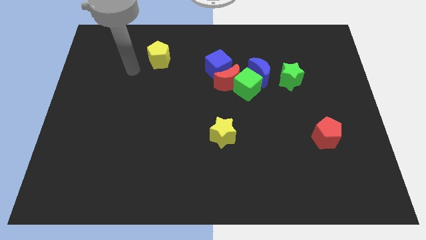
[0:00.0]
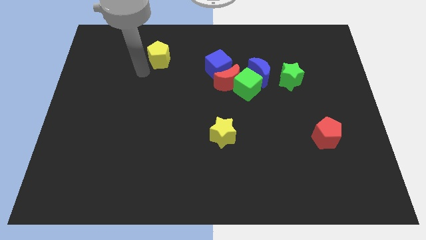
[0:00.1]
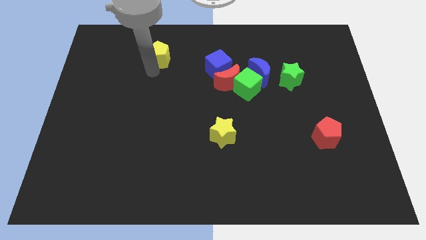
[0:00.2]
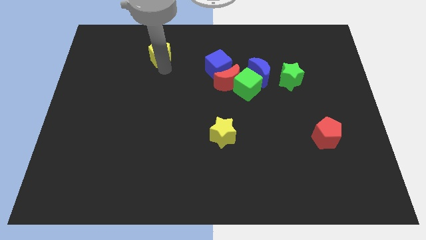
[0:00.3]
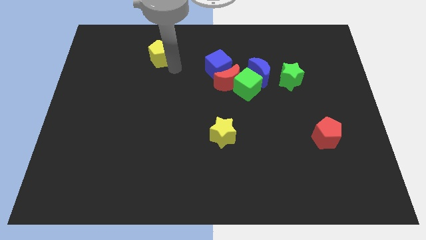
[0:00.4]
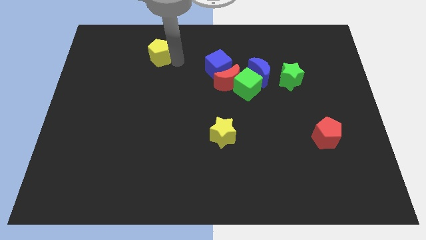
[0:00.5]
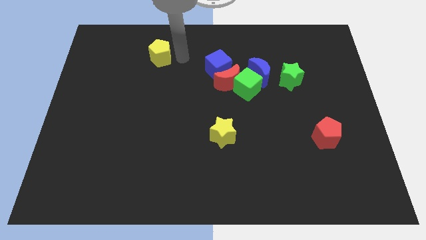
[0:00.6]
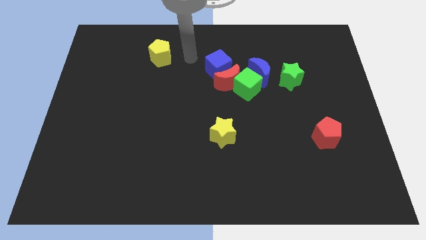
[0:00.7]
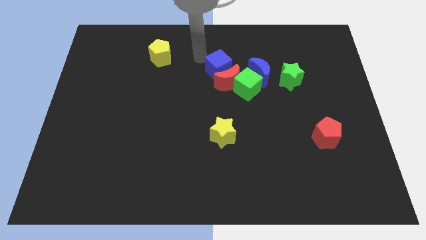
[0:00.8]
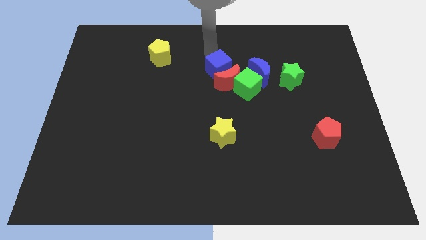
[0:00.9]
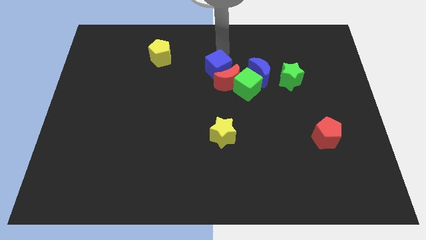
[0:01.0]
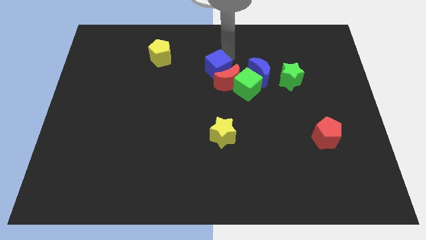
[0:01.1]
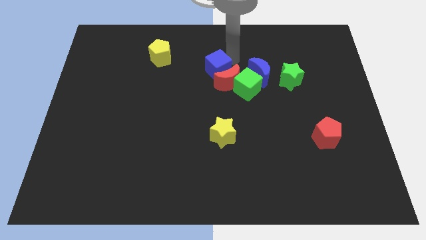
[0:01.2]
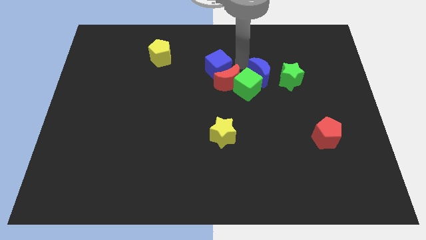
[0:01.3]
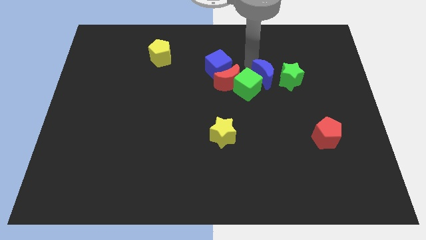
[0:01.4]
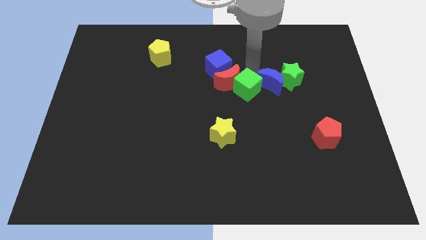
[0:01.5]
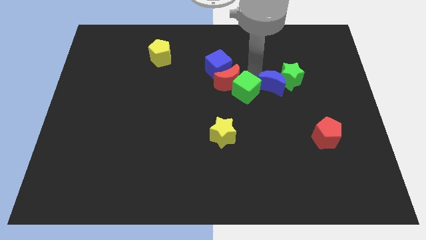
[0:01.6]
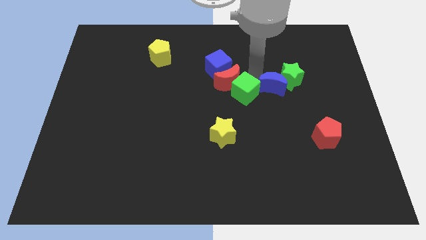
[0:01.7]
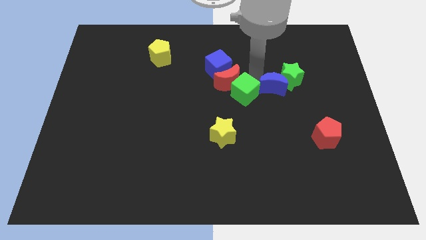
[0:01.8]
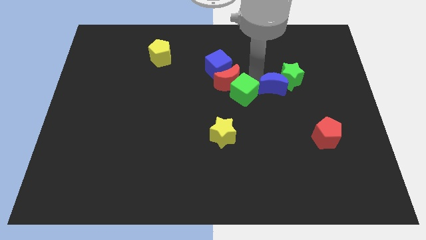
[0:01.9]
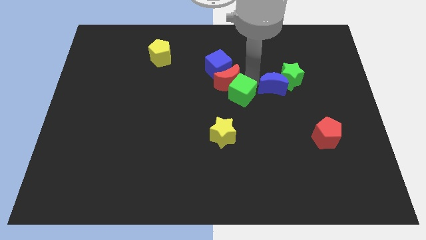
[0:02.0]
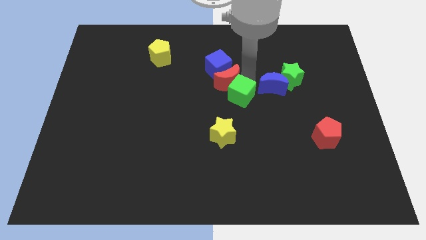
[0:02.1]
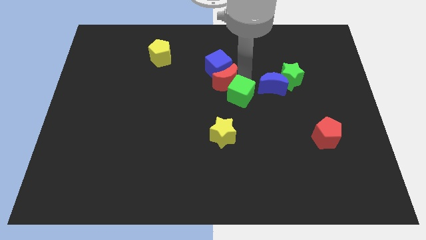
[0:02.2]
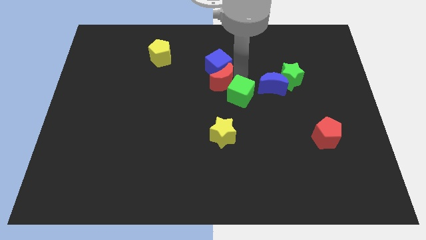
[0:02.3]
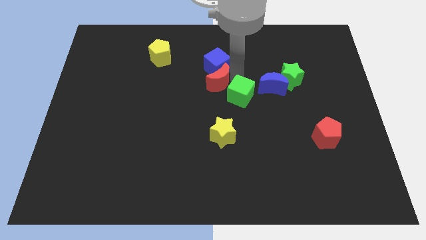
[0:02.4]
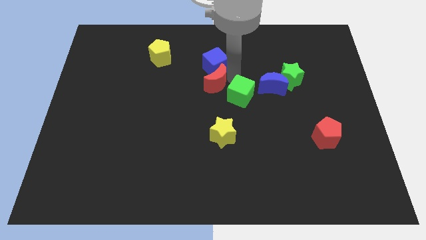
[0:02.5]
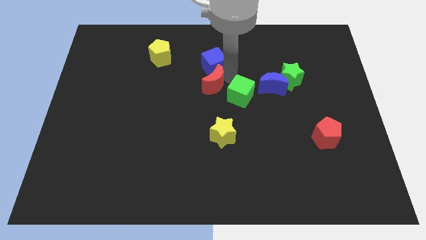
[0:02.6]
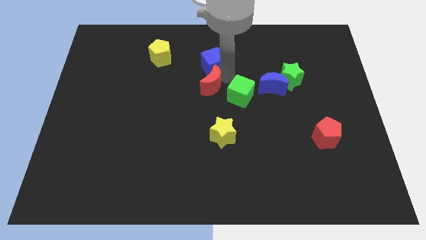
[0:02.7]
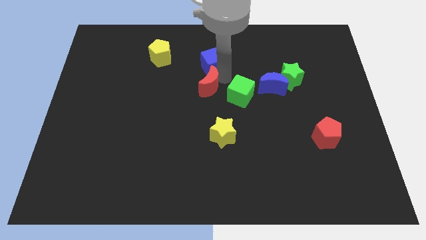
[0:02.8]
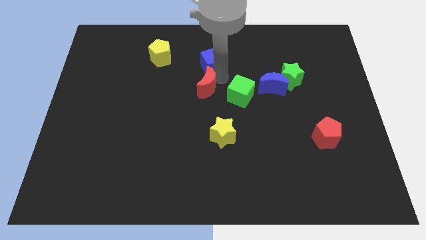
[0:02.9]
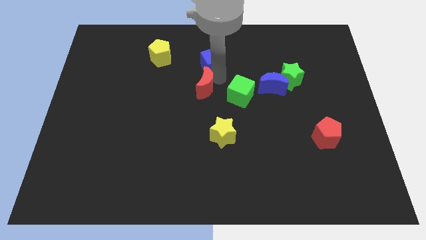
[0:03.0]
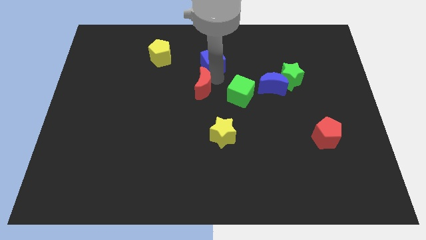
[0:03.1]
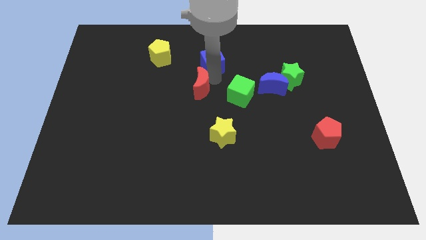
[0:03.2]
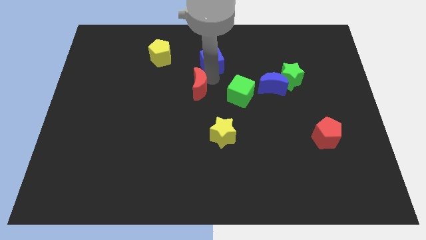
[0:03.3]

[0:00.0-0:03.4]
move the red moon away from the clump

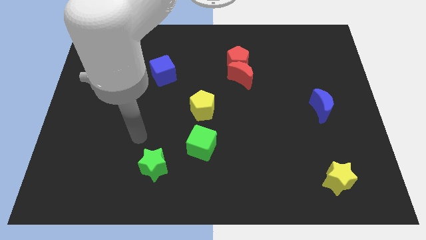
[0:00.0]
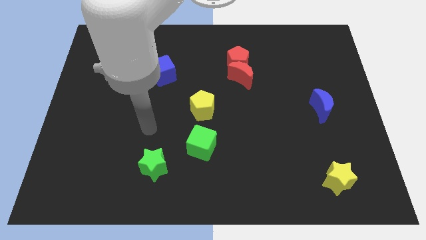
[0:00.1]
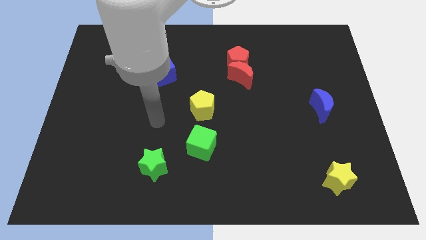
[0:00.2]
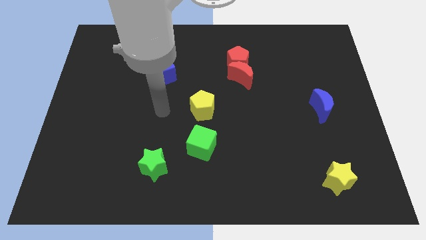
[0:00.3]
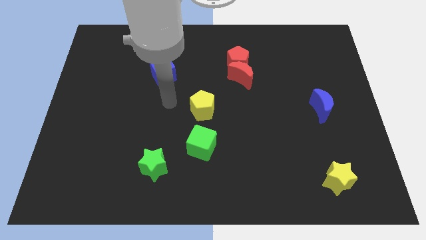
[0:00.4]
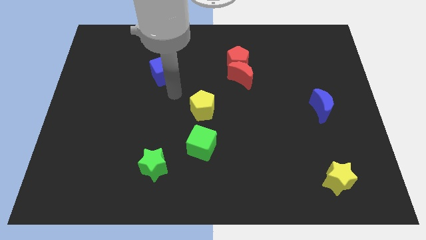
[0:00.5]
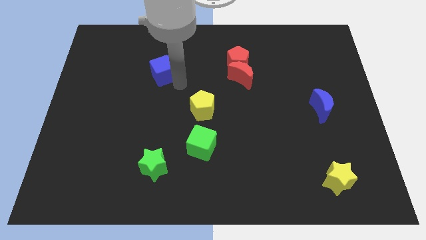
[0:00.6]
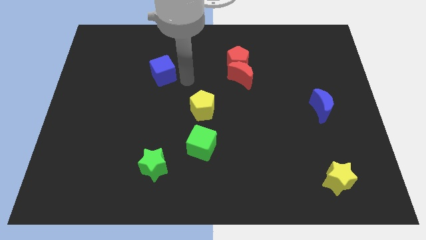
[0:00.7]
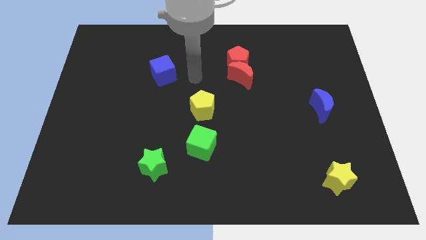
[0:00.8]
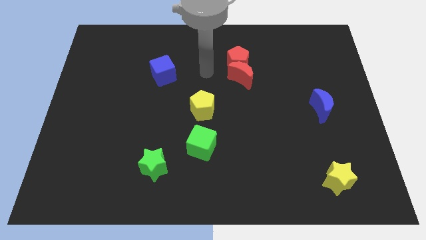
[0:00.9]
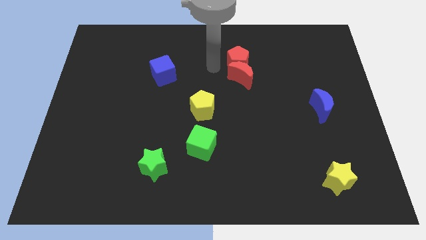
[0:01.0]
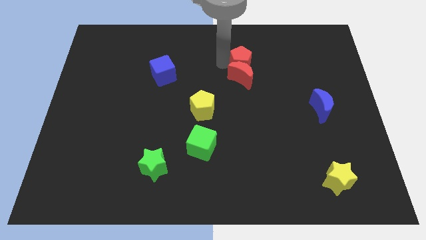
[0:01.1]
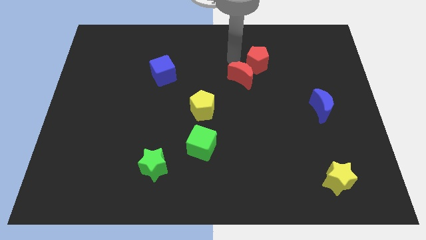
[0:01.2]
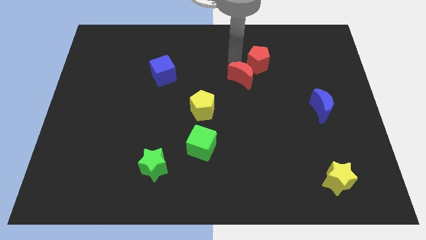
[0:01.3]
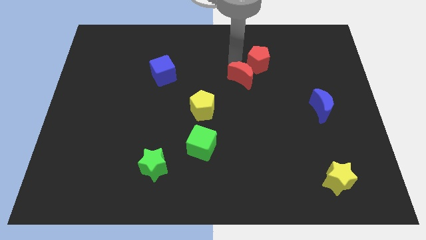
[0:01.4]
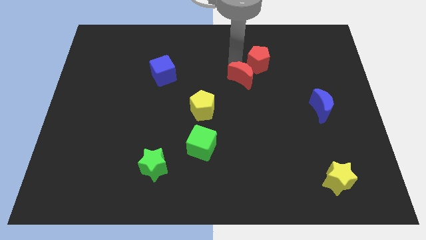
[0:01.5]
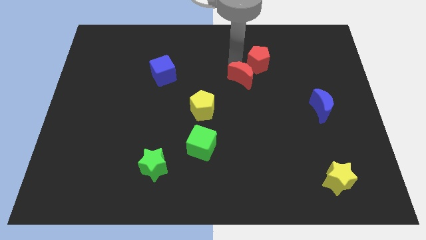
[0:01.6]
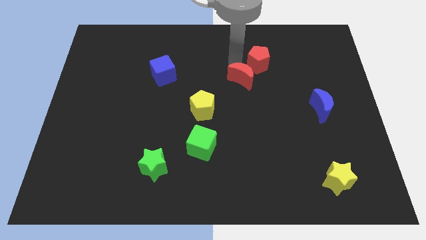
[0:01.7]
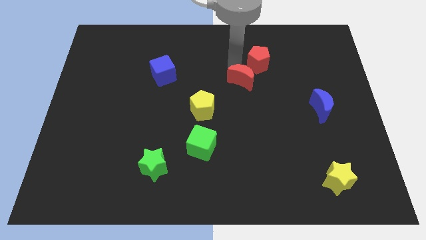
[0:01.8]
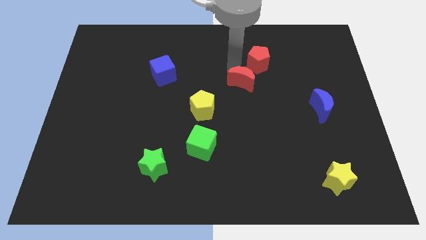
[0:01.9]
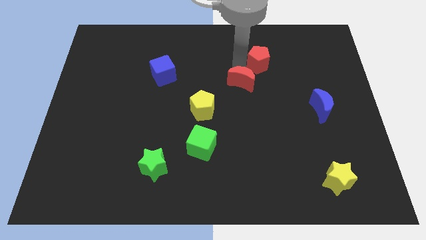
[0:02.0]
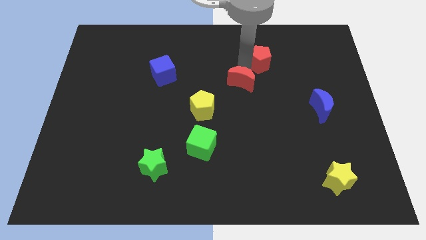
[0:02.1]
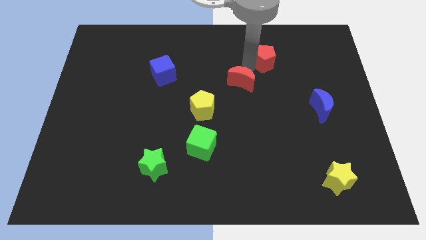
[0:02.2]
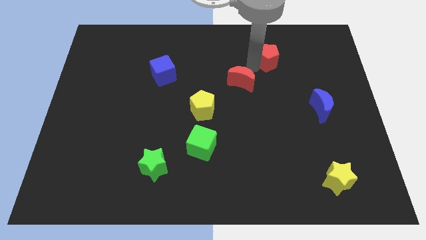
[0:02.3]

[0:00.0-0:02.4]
separate the red moon from the red pentagon

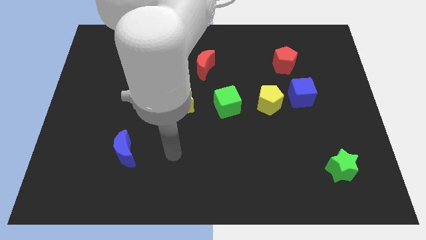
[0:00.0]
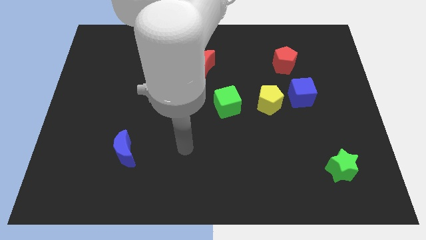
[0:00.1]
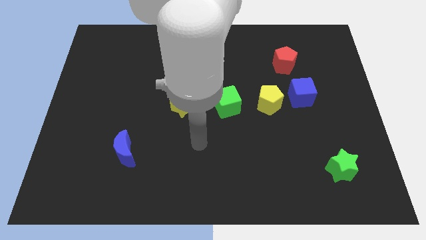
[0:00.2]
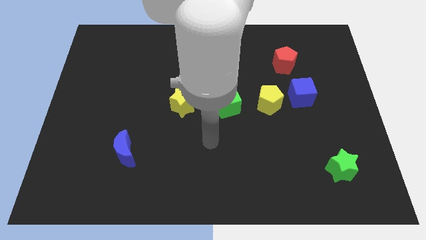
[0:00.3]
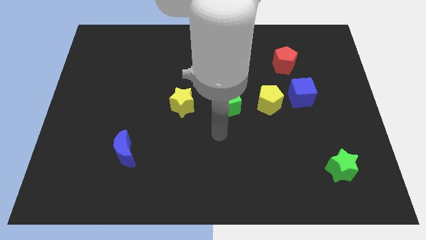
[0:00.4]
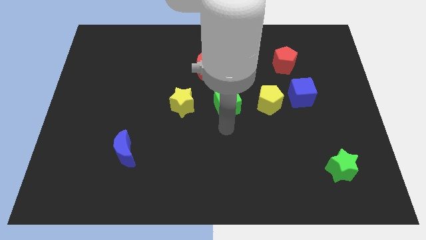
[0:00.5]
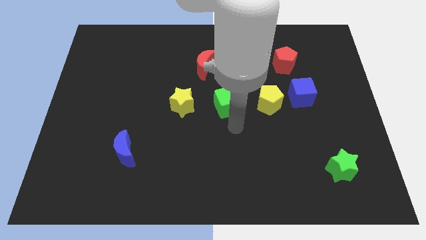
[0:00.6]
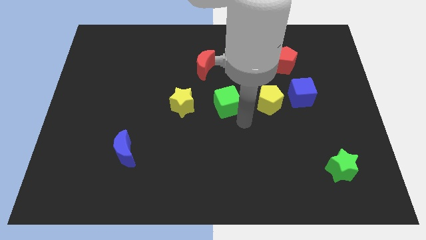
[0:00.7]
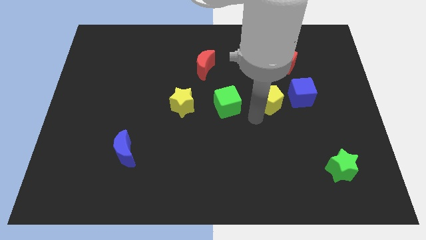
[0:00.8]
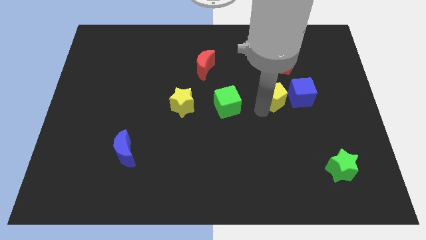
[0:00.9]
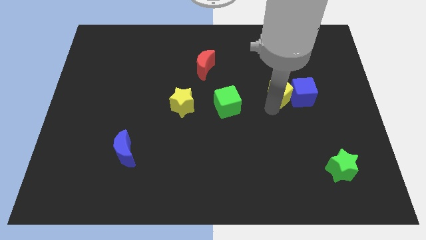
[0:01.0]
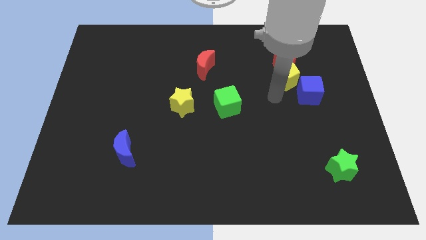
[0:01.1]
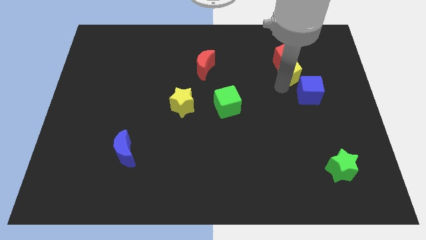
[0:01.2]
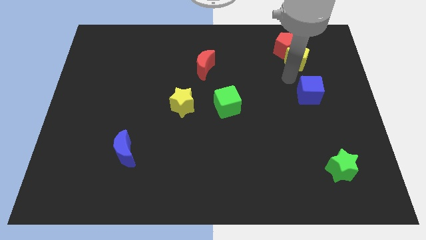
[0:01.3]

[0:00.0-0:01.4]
pull the blue cube apart from the yellow pentagon

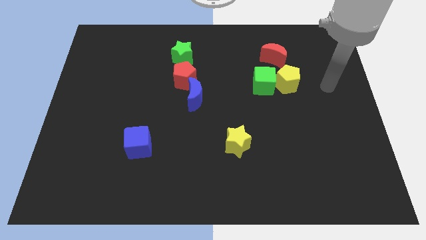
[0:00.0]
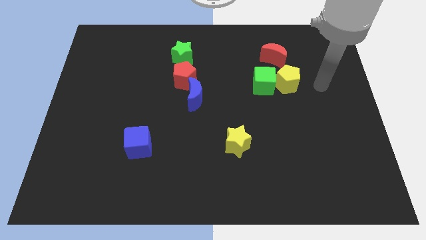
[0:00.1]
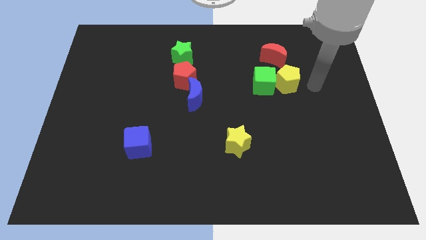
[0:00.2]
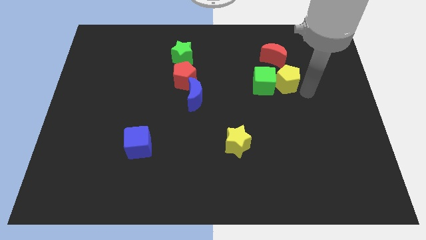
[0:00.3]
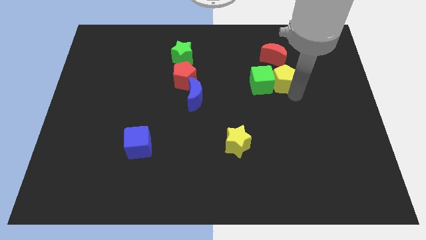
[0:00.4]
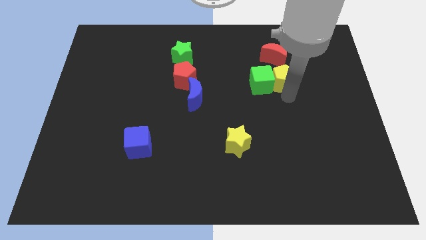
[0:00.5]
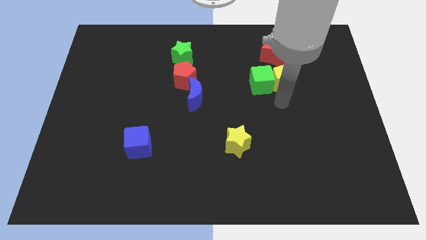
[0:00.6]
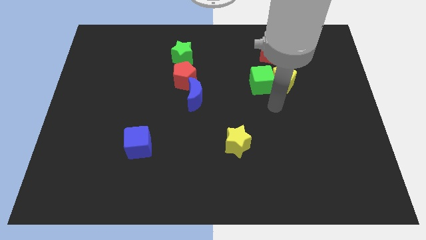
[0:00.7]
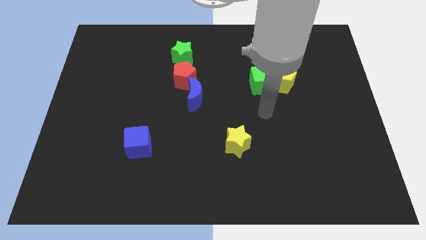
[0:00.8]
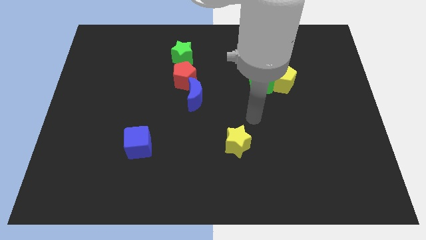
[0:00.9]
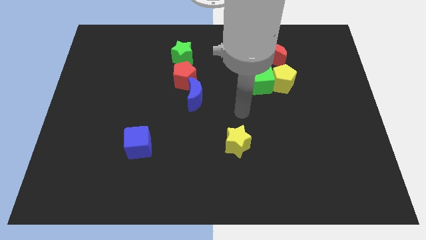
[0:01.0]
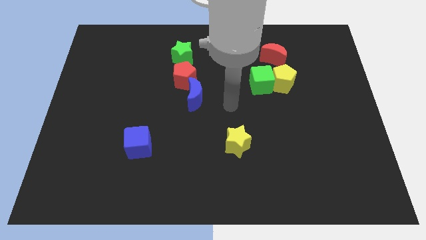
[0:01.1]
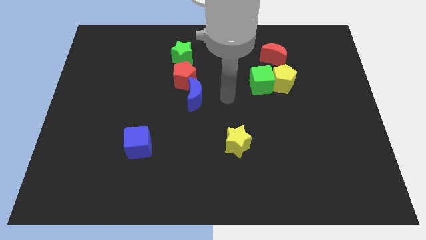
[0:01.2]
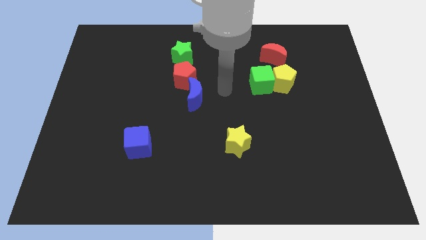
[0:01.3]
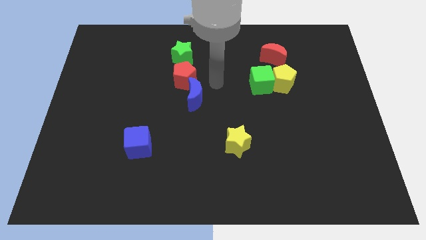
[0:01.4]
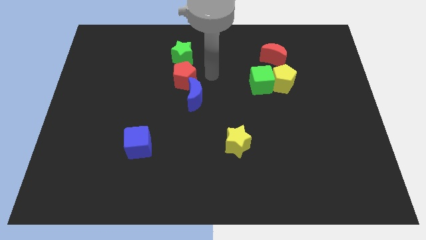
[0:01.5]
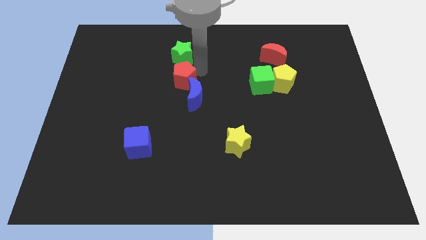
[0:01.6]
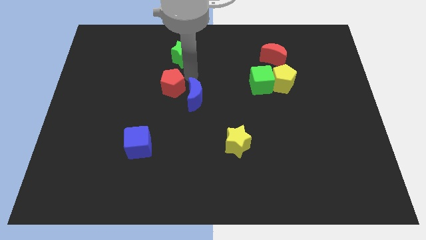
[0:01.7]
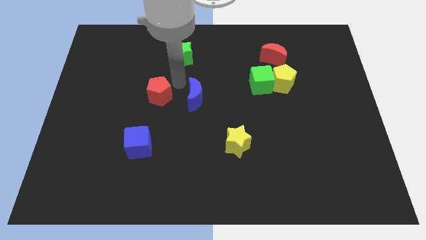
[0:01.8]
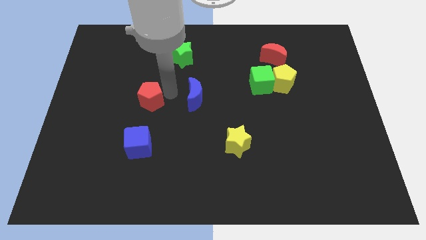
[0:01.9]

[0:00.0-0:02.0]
separate the blue moon from the red pentagon

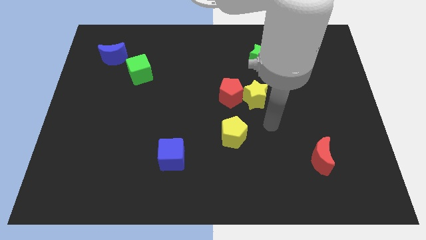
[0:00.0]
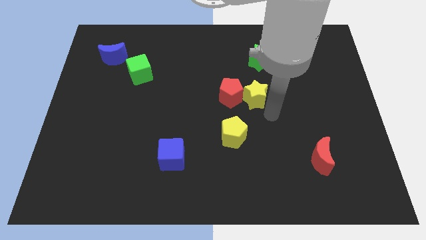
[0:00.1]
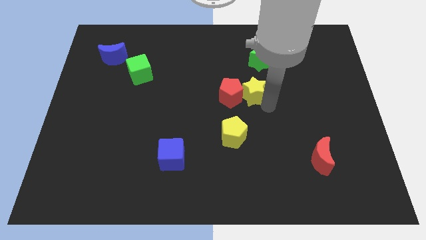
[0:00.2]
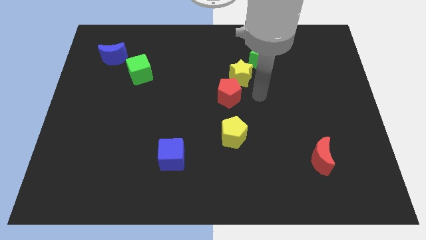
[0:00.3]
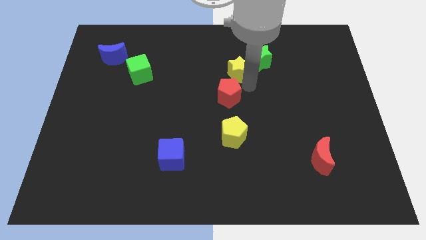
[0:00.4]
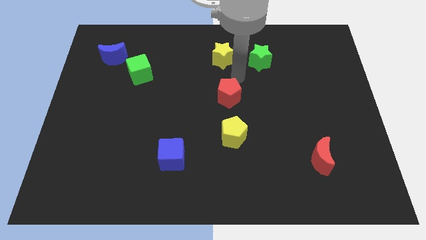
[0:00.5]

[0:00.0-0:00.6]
separate the red pentagon from the yellow star
